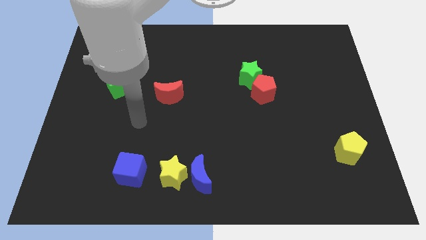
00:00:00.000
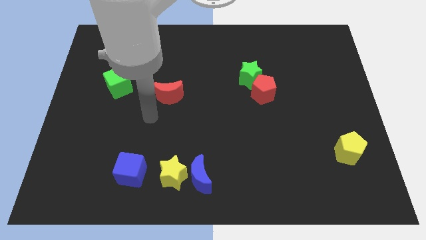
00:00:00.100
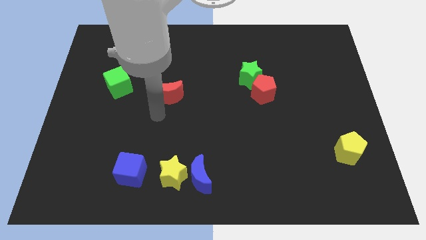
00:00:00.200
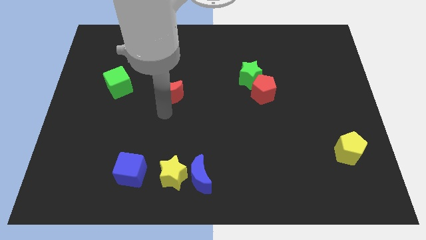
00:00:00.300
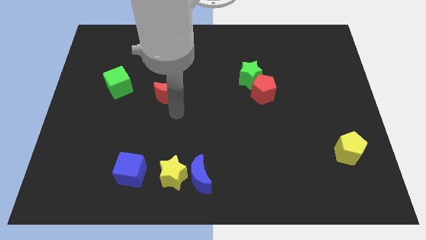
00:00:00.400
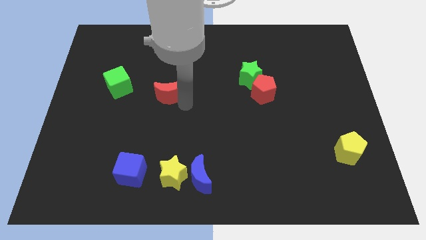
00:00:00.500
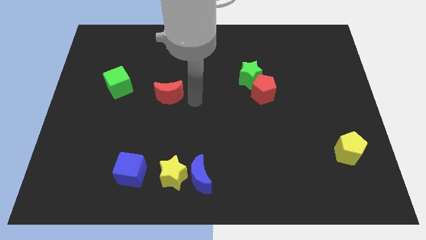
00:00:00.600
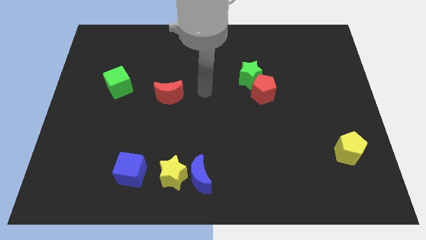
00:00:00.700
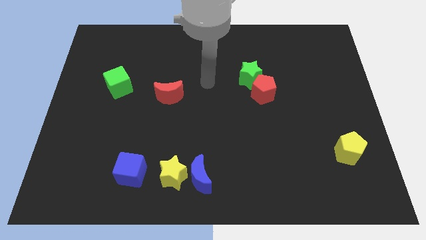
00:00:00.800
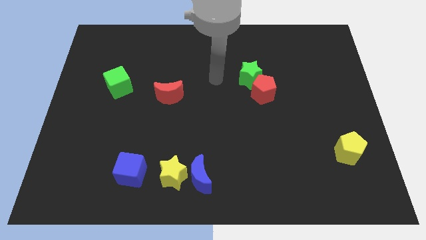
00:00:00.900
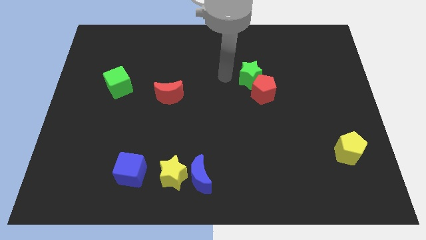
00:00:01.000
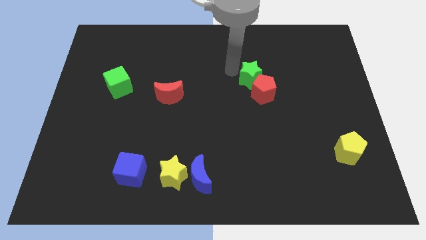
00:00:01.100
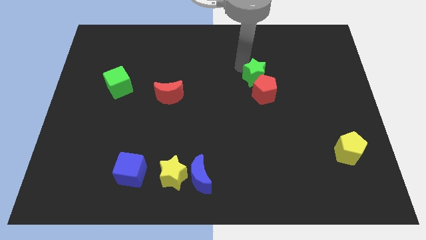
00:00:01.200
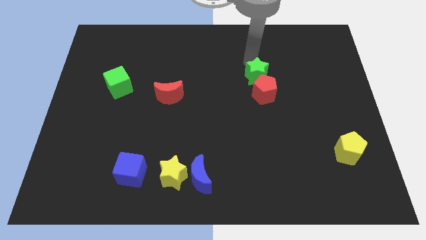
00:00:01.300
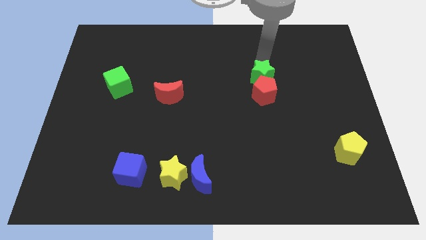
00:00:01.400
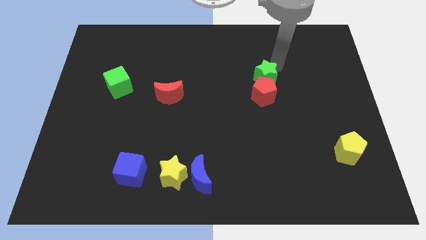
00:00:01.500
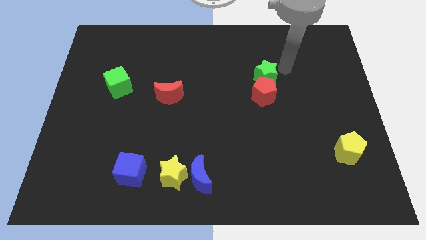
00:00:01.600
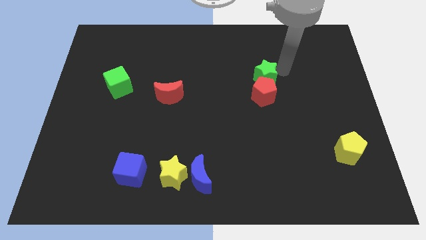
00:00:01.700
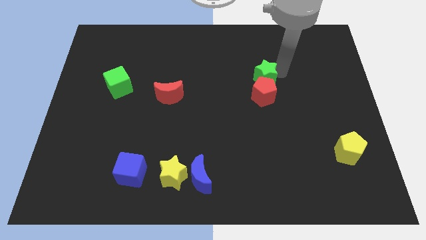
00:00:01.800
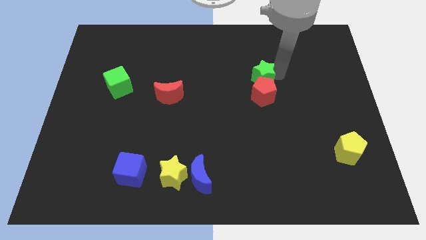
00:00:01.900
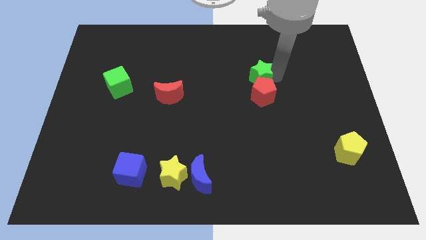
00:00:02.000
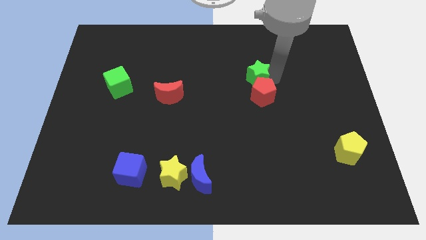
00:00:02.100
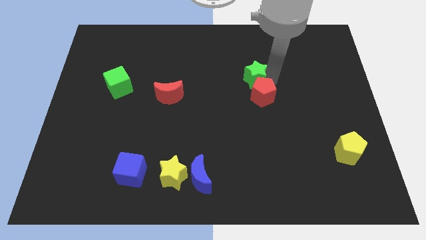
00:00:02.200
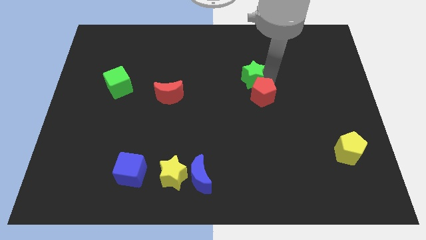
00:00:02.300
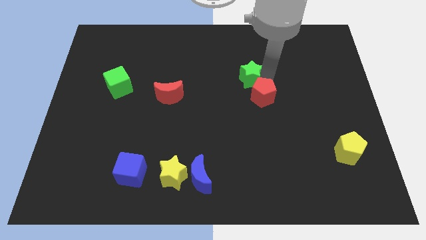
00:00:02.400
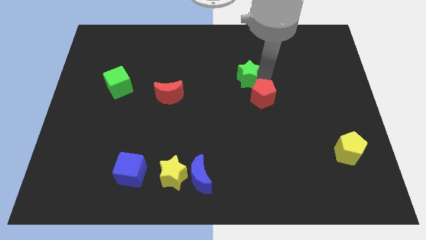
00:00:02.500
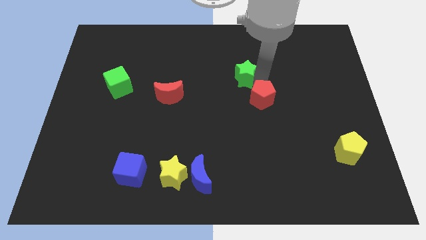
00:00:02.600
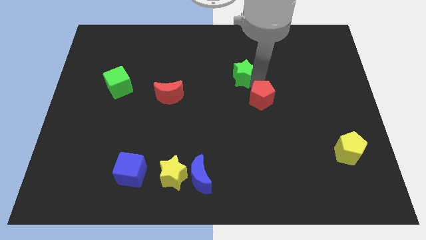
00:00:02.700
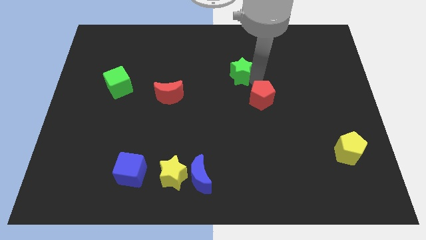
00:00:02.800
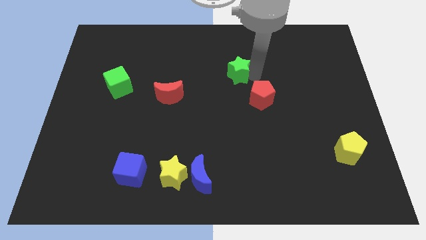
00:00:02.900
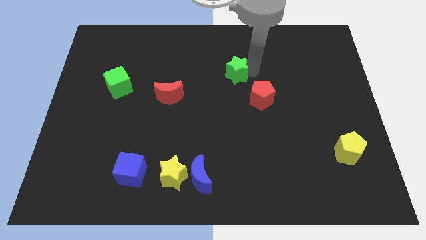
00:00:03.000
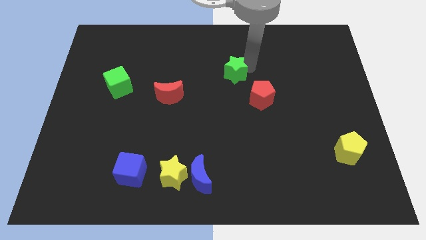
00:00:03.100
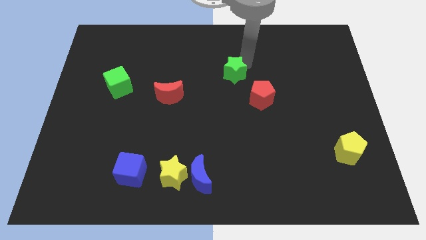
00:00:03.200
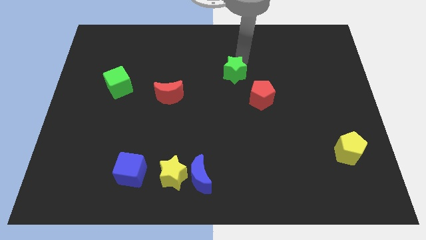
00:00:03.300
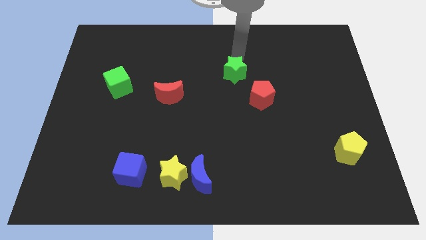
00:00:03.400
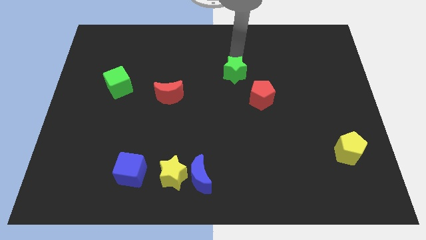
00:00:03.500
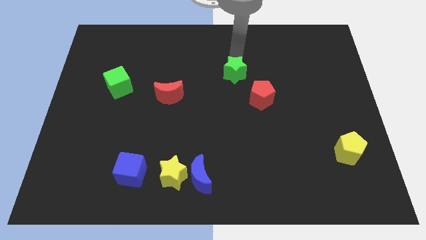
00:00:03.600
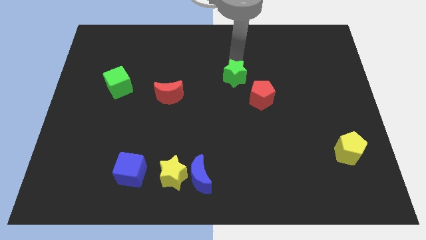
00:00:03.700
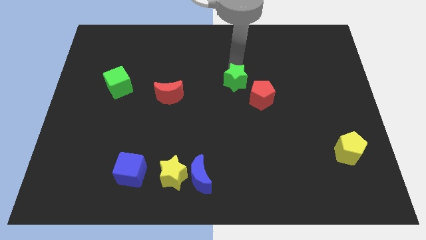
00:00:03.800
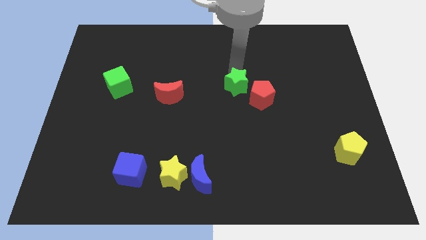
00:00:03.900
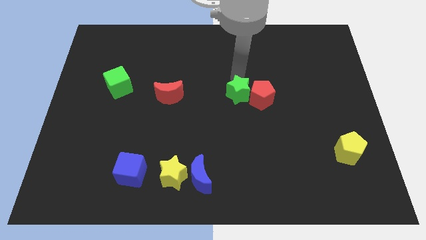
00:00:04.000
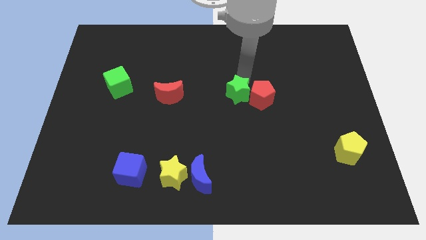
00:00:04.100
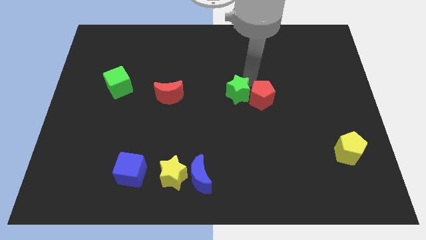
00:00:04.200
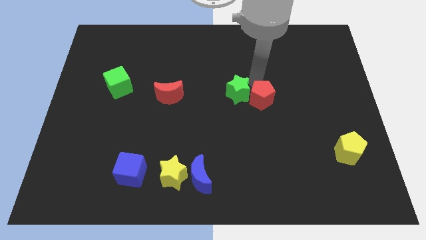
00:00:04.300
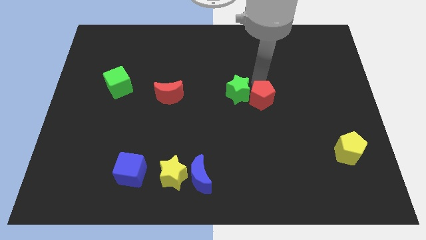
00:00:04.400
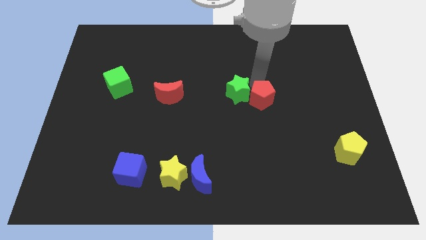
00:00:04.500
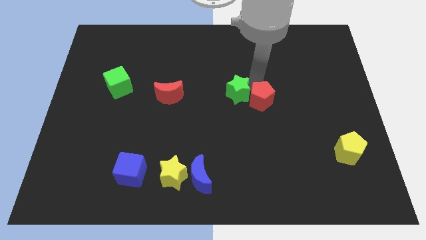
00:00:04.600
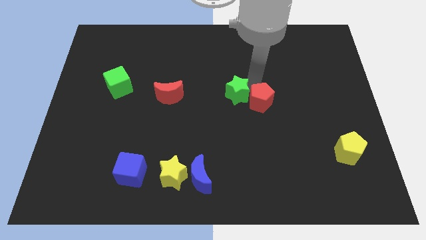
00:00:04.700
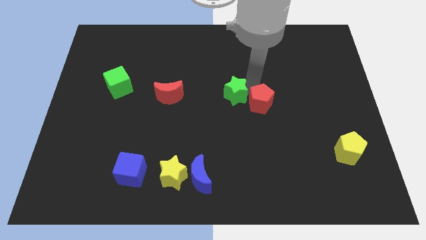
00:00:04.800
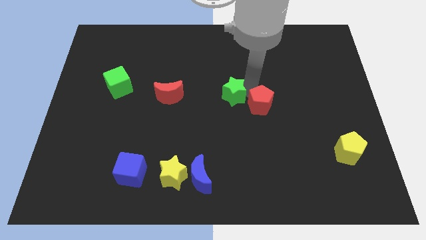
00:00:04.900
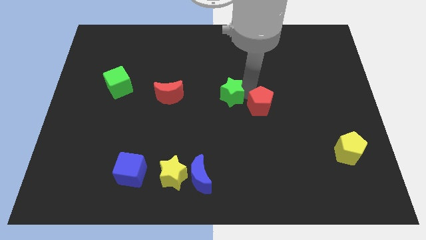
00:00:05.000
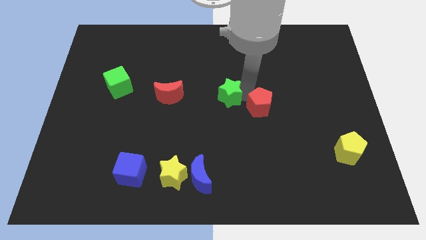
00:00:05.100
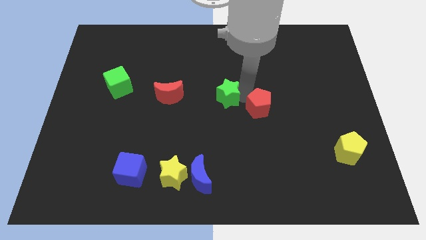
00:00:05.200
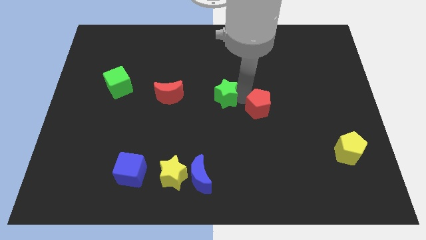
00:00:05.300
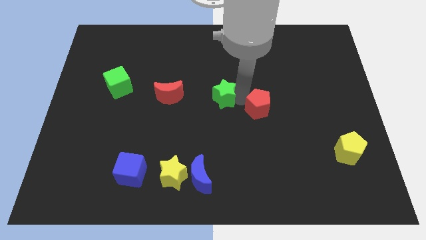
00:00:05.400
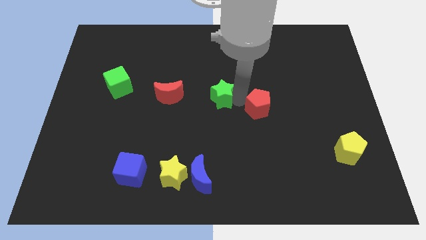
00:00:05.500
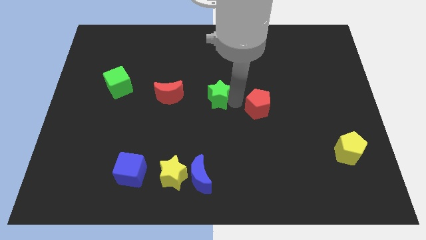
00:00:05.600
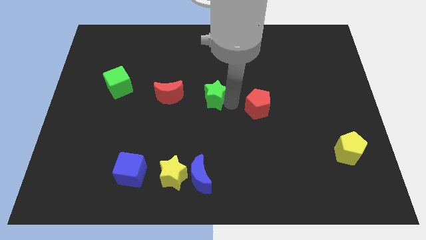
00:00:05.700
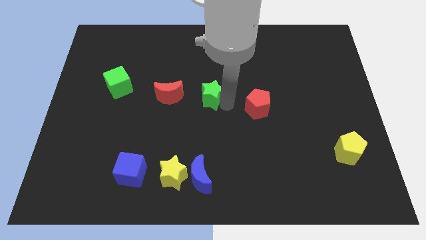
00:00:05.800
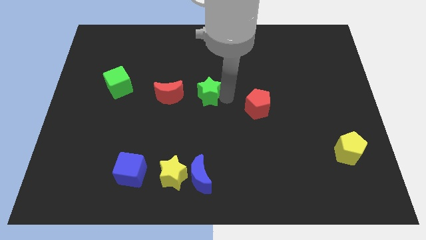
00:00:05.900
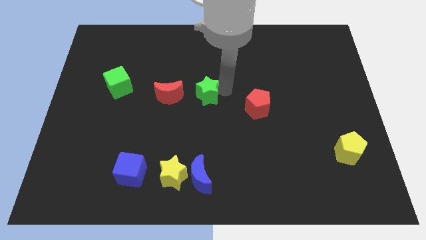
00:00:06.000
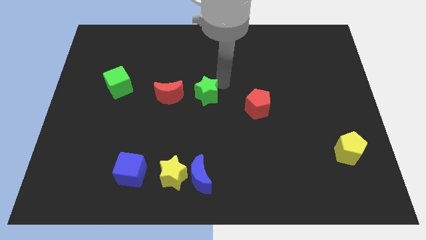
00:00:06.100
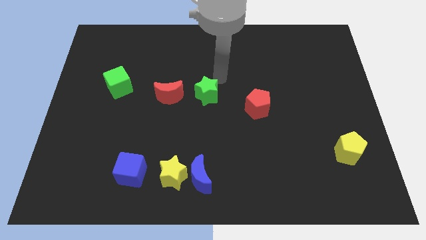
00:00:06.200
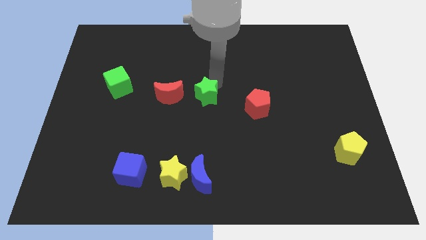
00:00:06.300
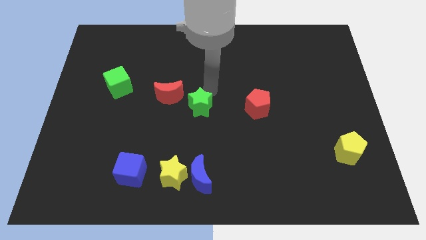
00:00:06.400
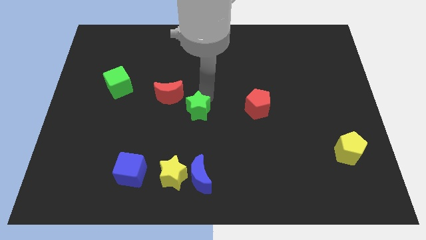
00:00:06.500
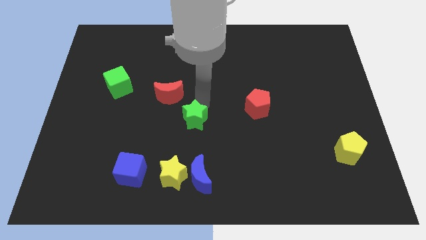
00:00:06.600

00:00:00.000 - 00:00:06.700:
move the green star to the top side of the yellow star
